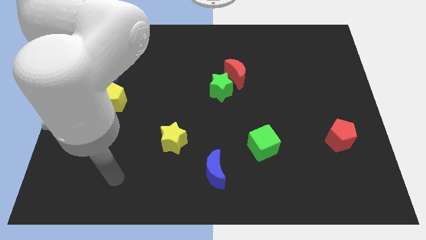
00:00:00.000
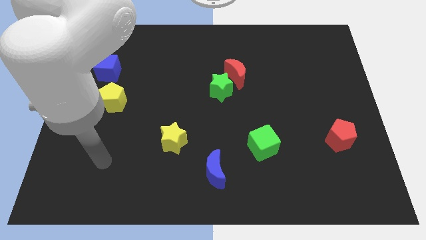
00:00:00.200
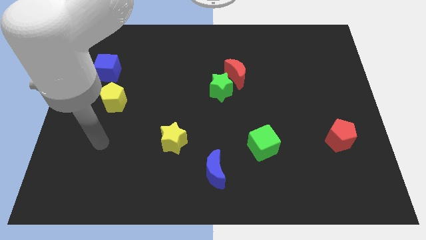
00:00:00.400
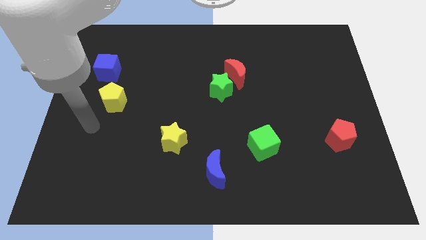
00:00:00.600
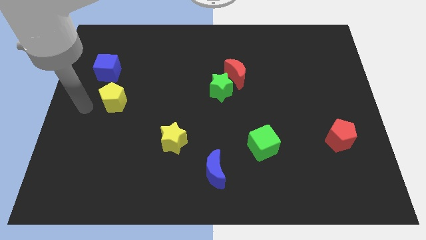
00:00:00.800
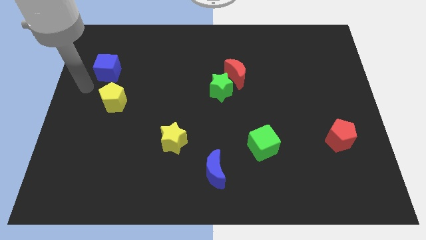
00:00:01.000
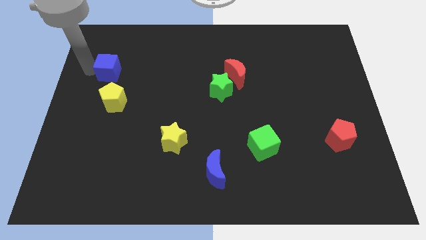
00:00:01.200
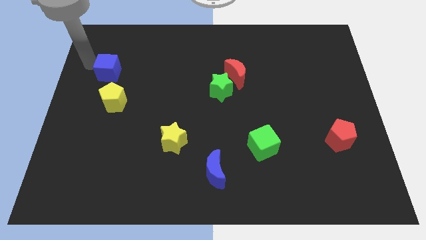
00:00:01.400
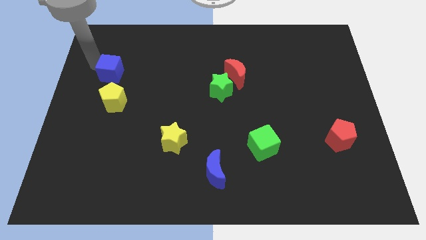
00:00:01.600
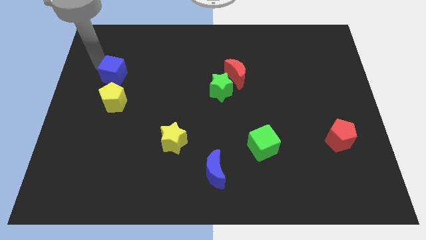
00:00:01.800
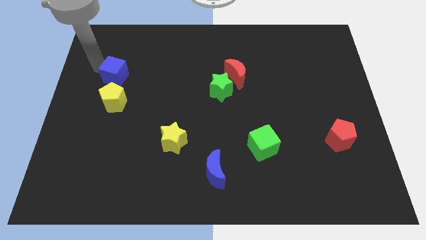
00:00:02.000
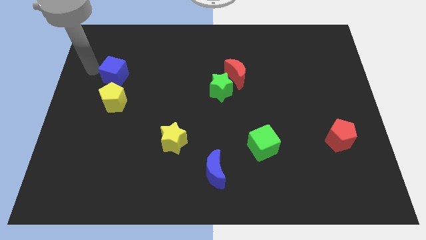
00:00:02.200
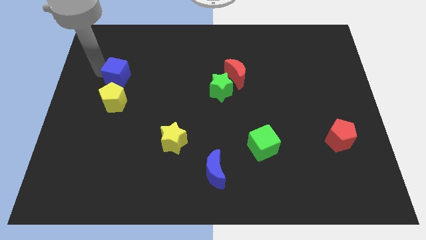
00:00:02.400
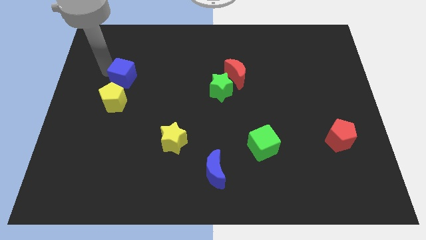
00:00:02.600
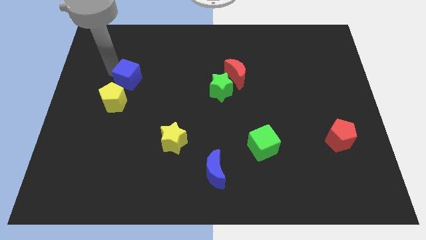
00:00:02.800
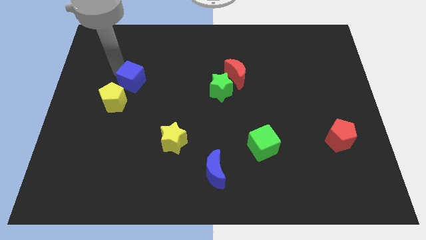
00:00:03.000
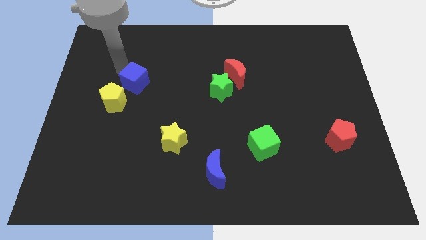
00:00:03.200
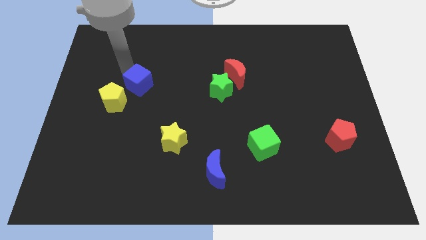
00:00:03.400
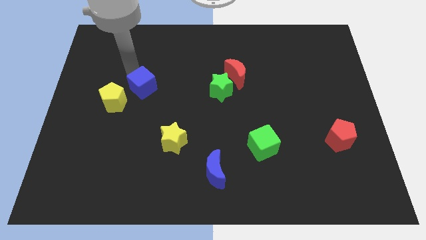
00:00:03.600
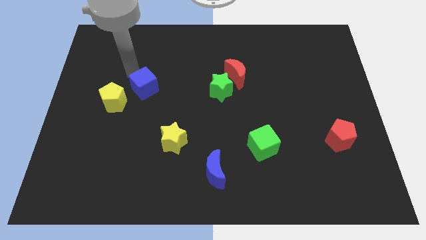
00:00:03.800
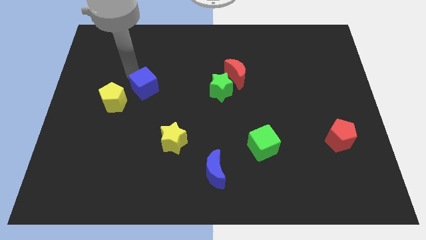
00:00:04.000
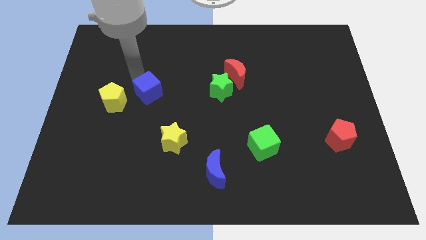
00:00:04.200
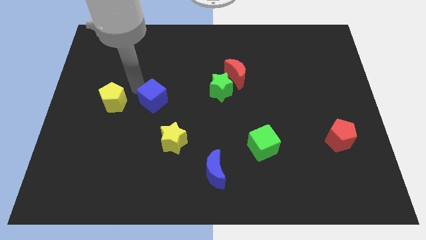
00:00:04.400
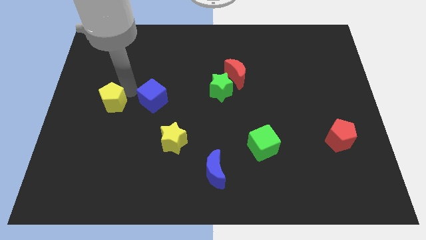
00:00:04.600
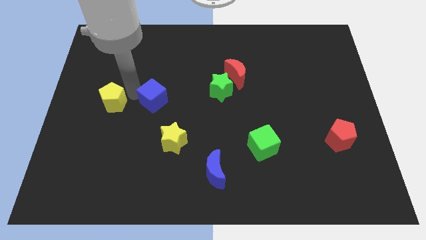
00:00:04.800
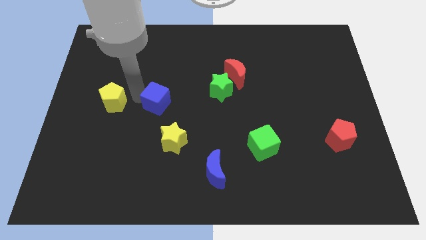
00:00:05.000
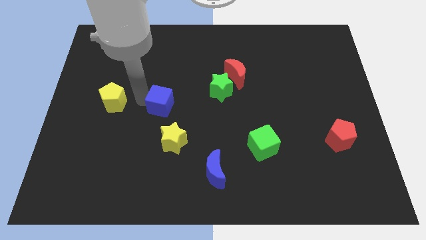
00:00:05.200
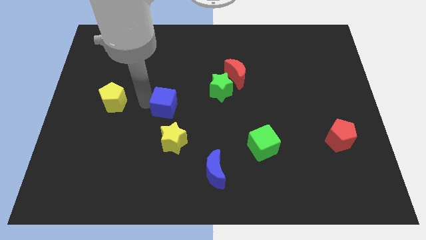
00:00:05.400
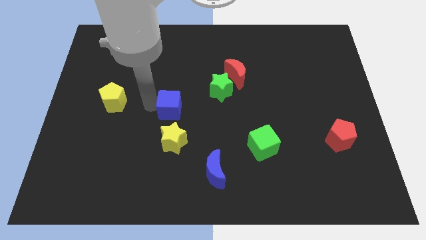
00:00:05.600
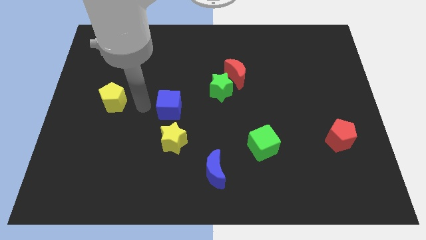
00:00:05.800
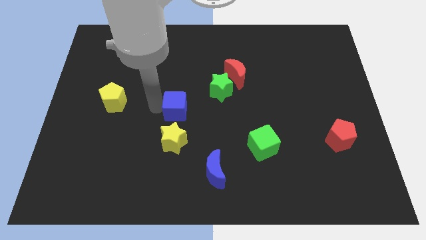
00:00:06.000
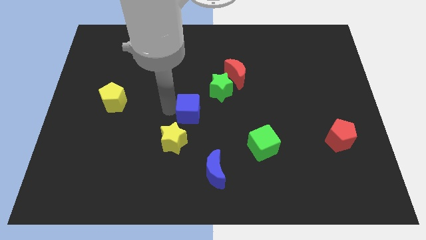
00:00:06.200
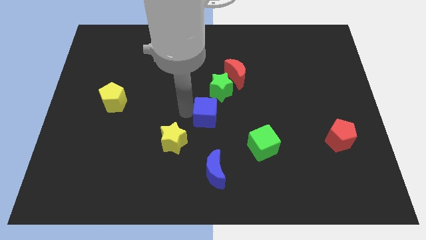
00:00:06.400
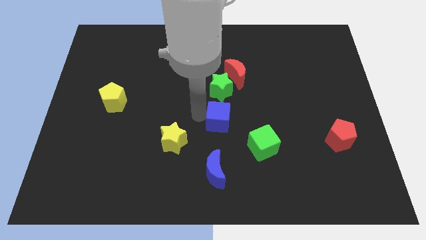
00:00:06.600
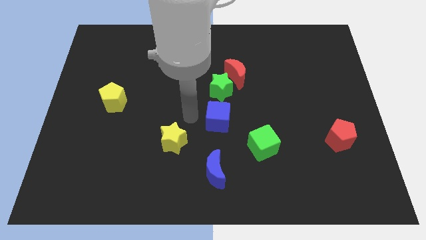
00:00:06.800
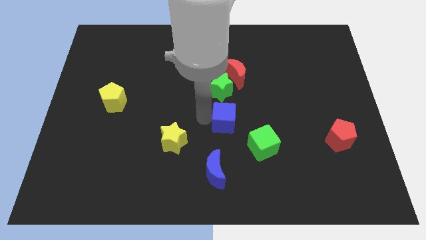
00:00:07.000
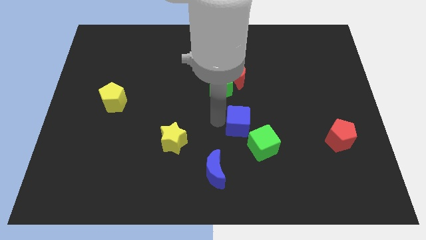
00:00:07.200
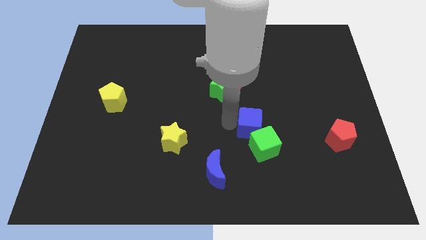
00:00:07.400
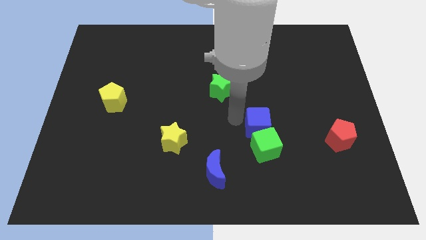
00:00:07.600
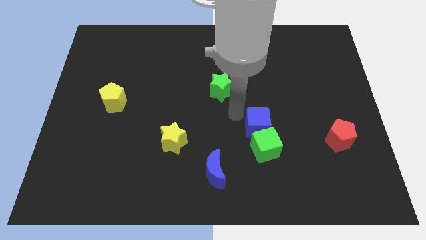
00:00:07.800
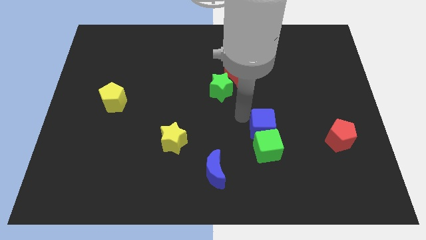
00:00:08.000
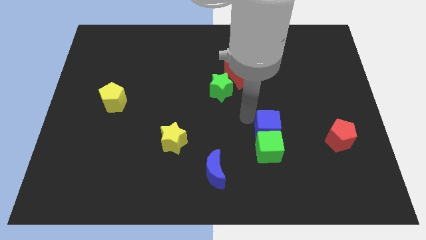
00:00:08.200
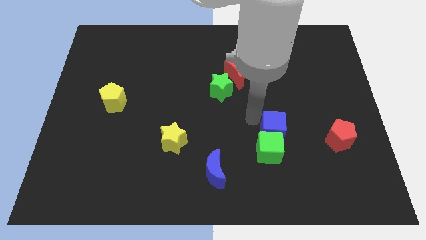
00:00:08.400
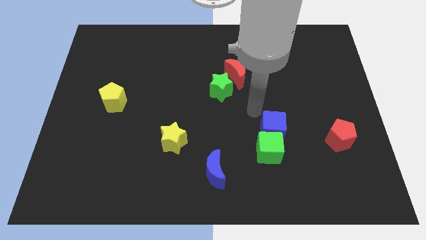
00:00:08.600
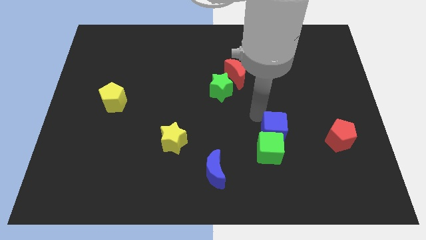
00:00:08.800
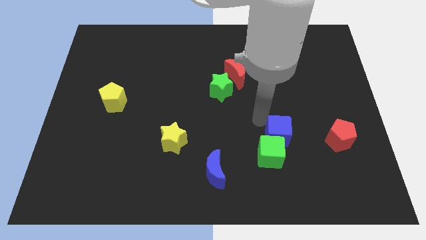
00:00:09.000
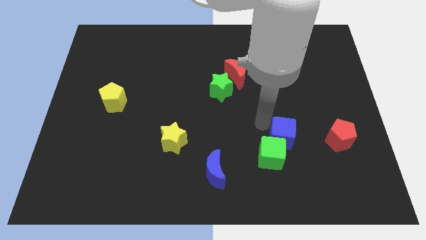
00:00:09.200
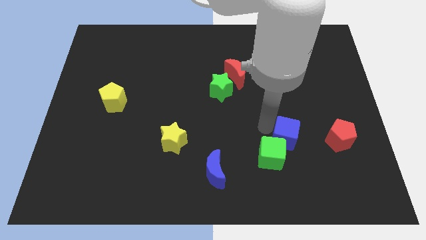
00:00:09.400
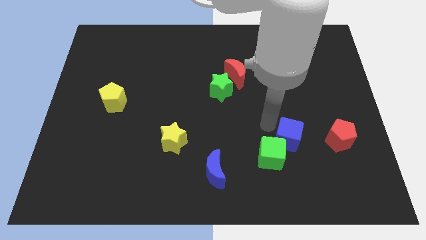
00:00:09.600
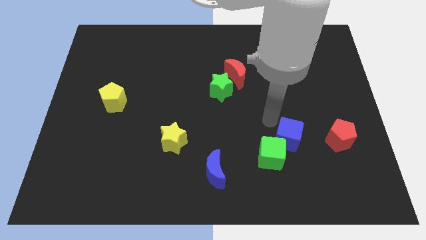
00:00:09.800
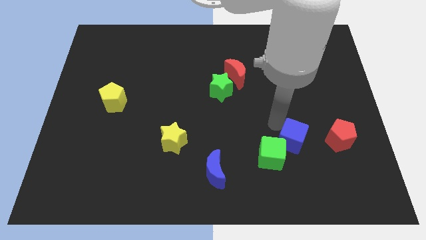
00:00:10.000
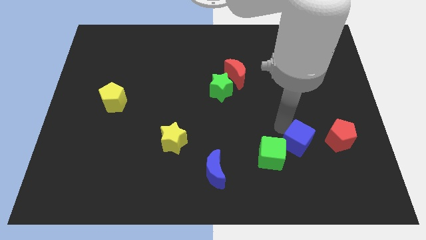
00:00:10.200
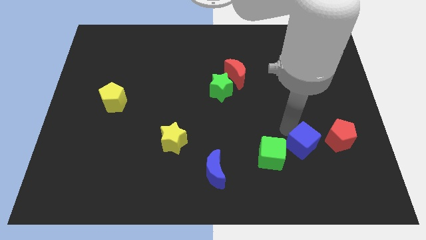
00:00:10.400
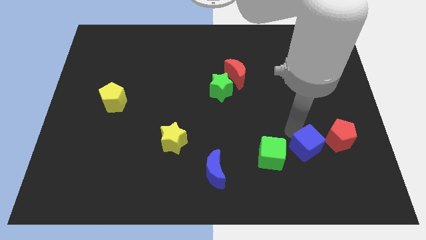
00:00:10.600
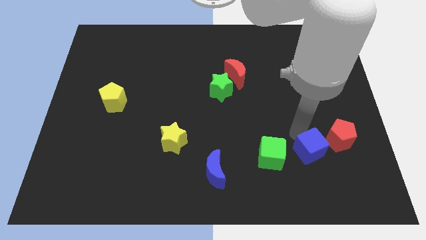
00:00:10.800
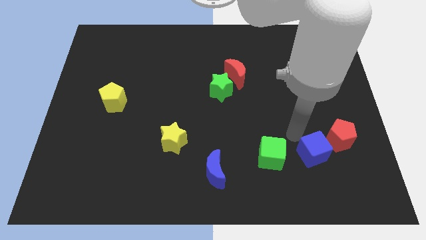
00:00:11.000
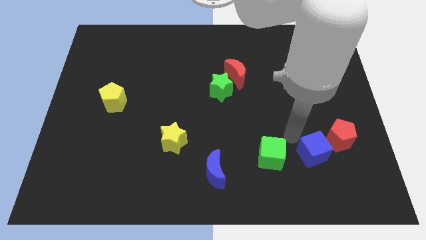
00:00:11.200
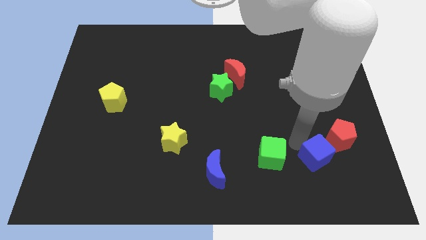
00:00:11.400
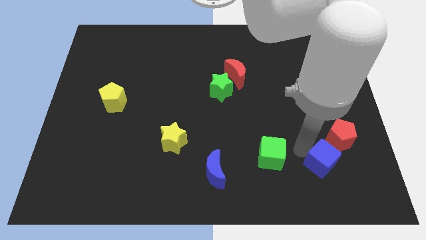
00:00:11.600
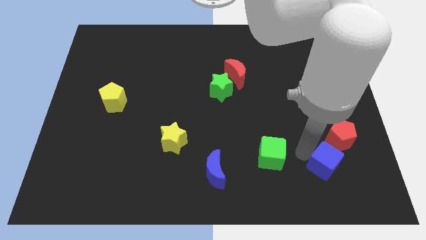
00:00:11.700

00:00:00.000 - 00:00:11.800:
push the blue cube to the bottom of the red pentagon

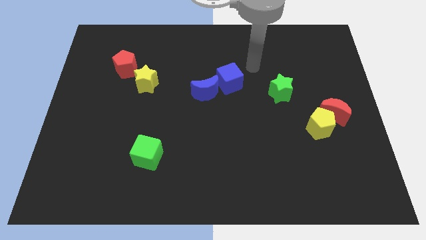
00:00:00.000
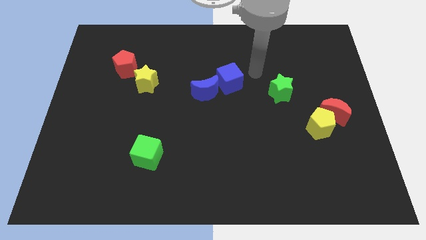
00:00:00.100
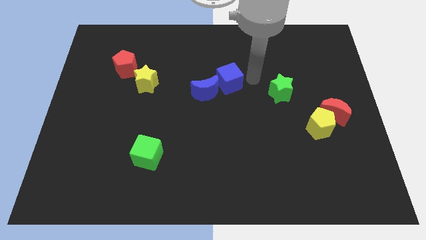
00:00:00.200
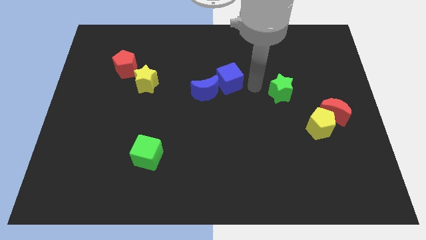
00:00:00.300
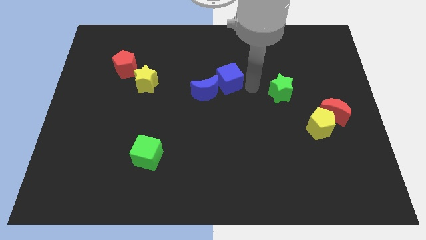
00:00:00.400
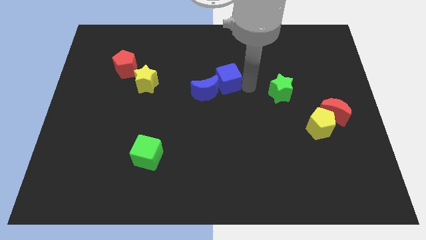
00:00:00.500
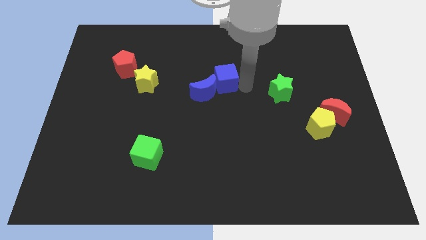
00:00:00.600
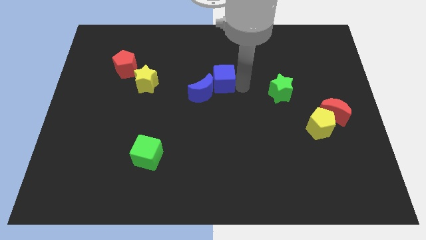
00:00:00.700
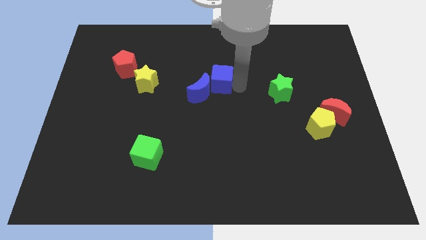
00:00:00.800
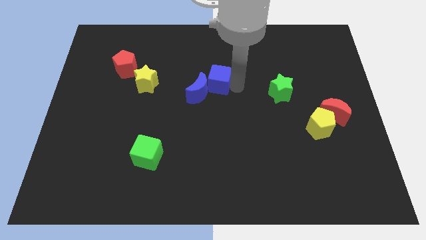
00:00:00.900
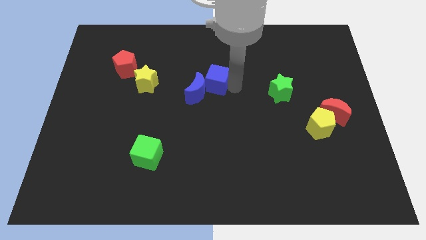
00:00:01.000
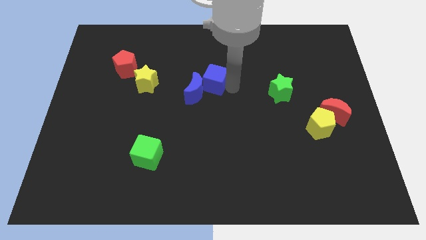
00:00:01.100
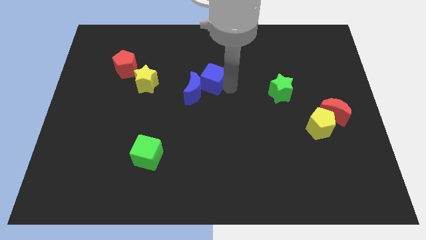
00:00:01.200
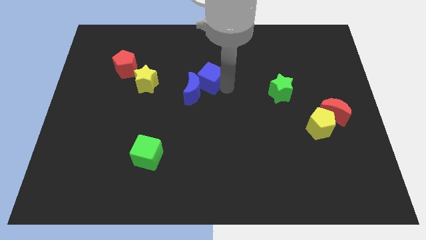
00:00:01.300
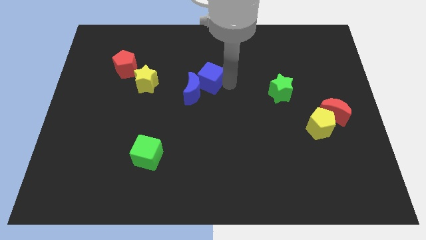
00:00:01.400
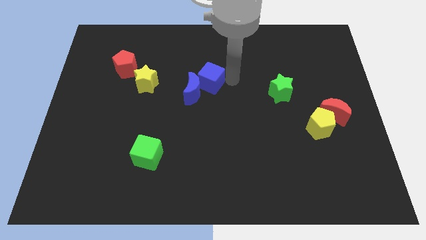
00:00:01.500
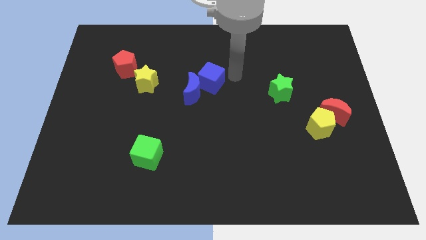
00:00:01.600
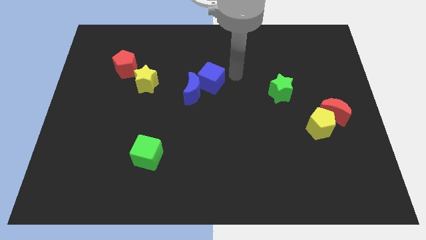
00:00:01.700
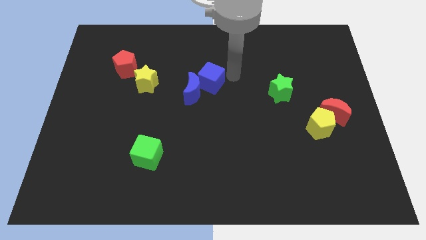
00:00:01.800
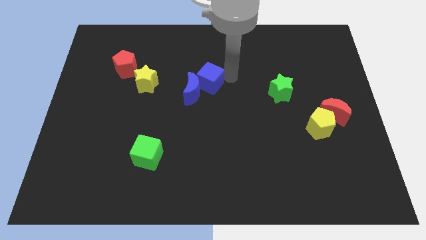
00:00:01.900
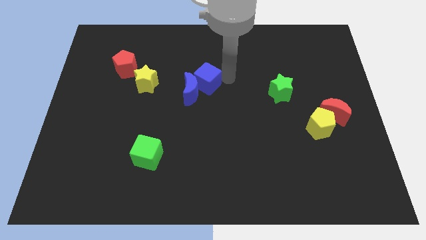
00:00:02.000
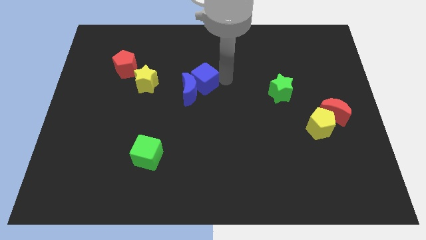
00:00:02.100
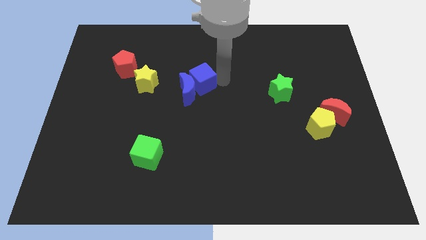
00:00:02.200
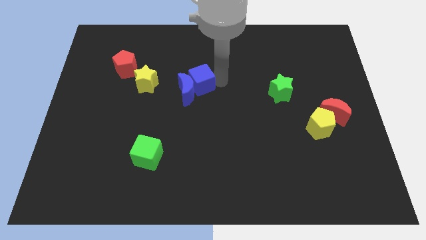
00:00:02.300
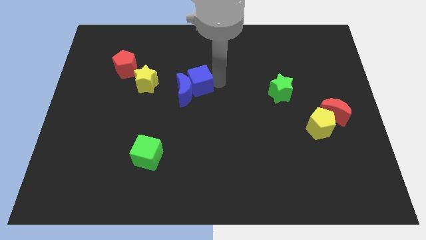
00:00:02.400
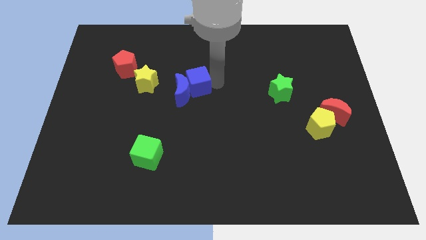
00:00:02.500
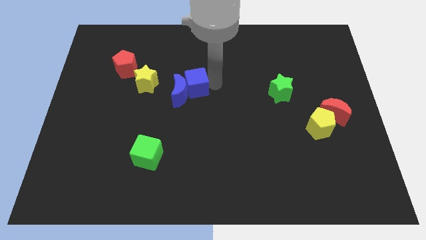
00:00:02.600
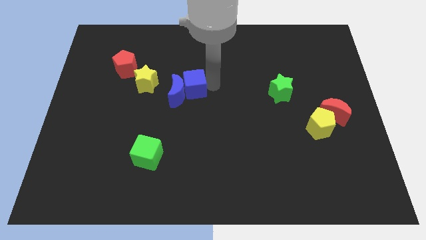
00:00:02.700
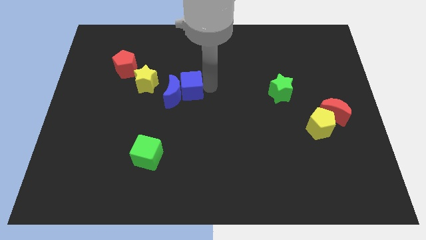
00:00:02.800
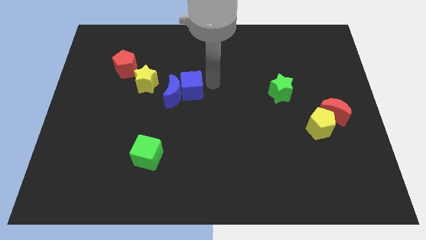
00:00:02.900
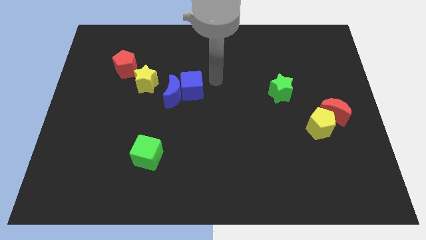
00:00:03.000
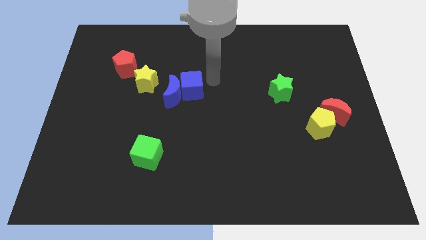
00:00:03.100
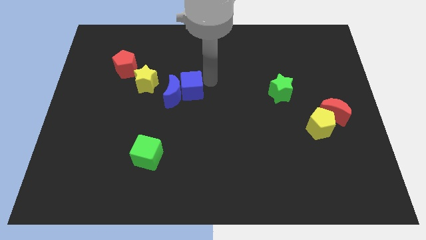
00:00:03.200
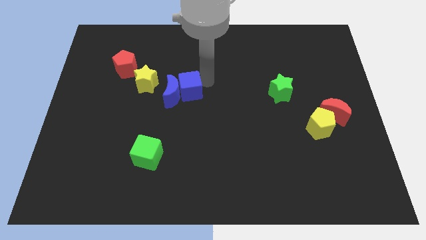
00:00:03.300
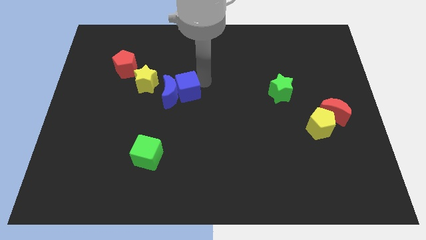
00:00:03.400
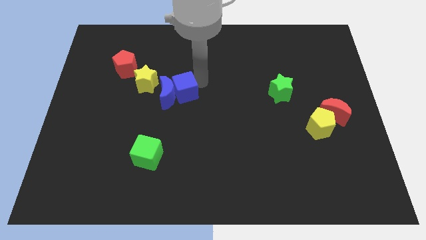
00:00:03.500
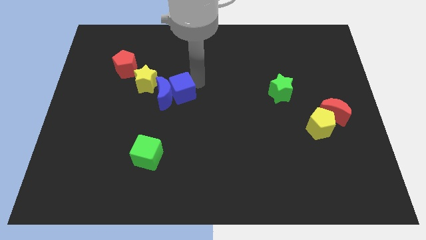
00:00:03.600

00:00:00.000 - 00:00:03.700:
put the blue cube diagonally down and to the right of the yellow star
